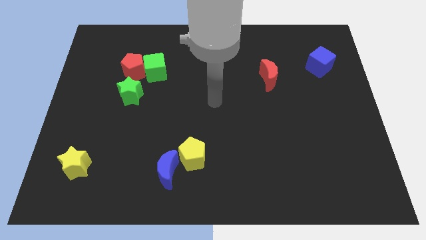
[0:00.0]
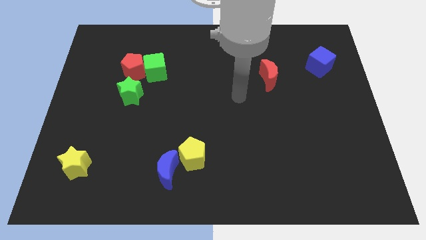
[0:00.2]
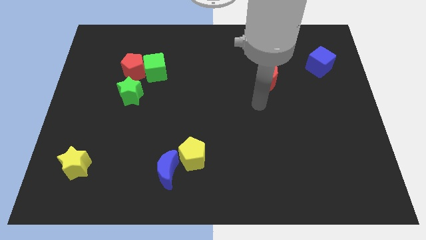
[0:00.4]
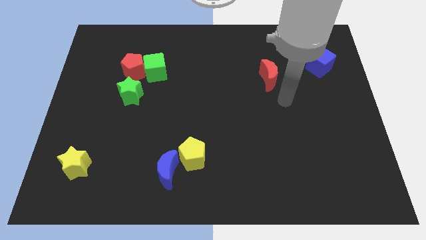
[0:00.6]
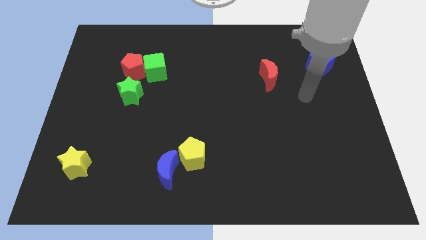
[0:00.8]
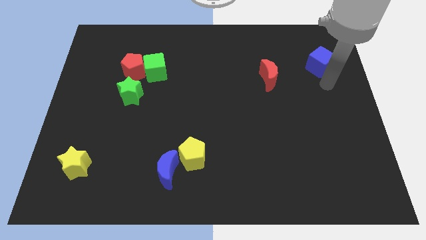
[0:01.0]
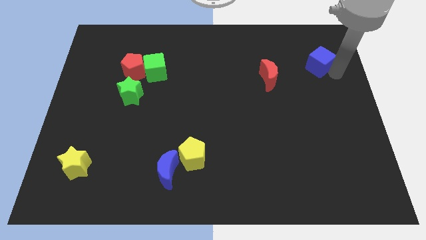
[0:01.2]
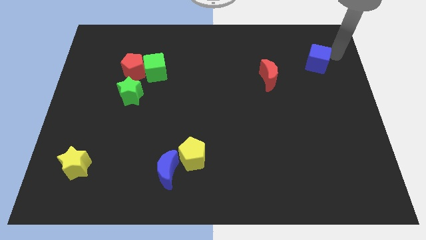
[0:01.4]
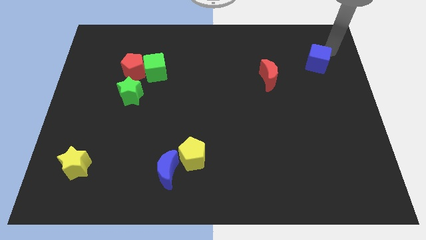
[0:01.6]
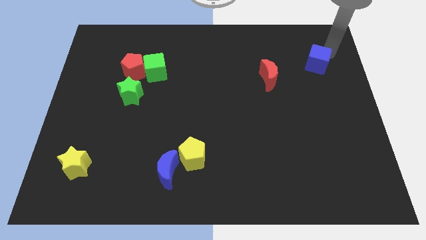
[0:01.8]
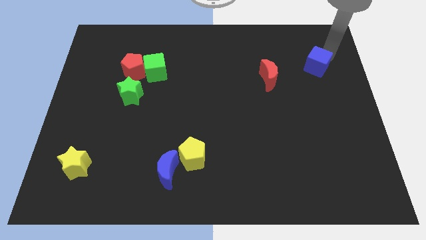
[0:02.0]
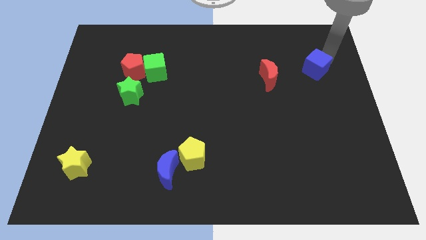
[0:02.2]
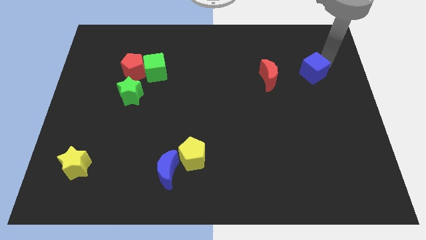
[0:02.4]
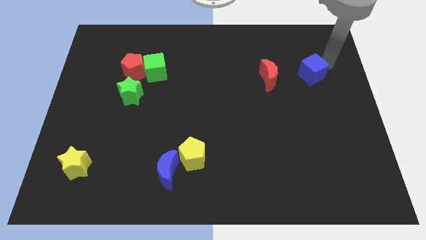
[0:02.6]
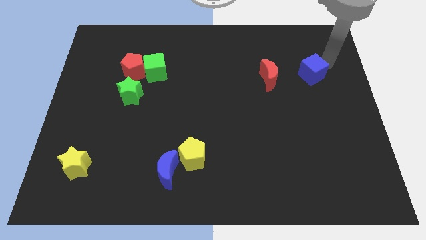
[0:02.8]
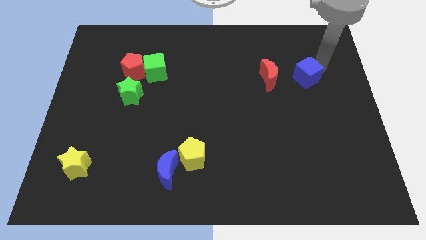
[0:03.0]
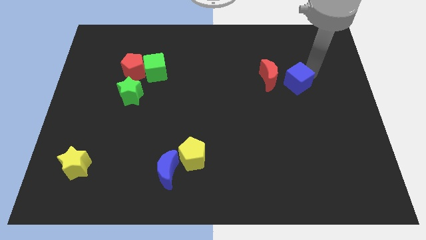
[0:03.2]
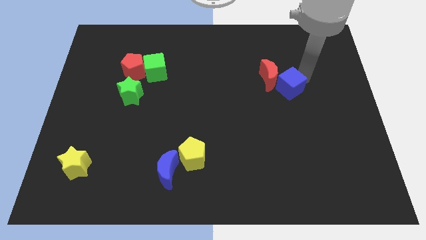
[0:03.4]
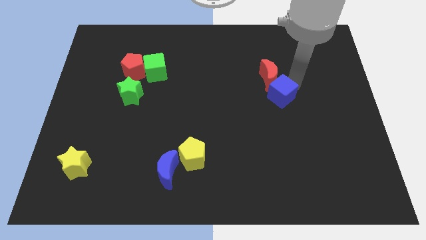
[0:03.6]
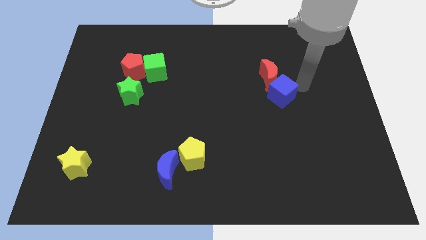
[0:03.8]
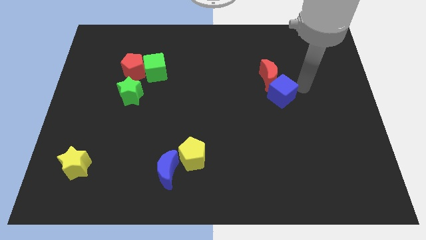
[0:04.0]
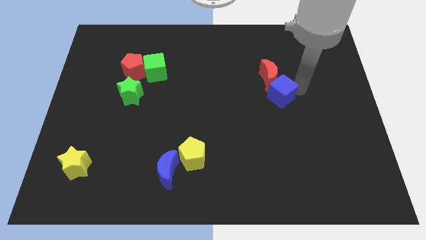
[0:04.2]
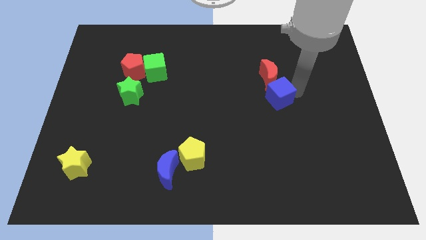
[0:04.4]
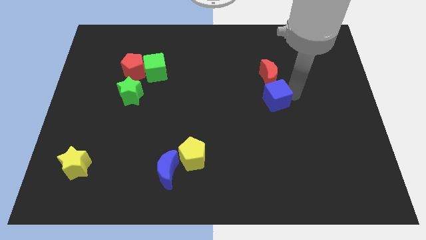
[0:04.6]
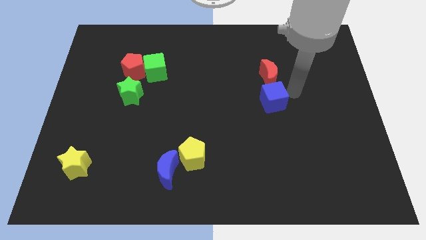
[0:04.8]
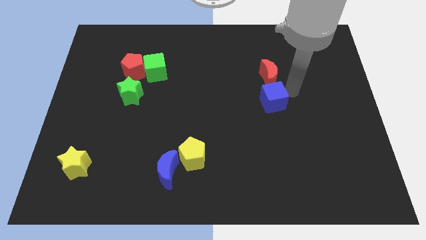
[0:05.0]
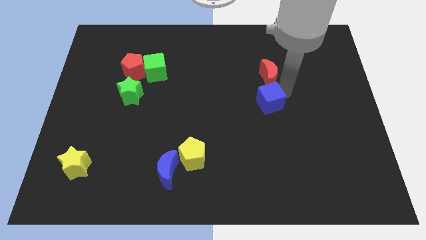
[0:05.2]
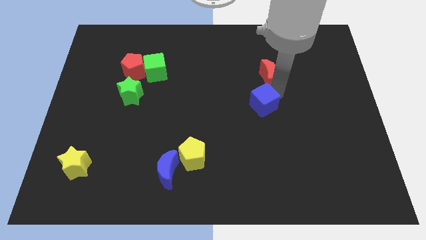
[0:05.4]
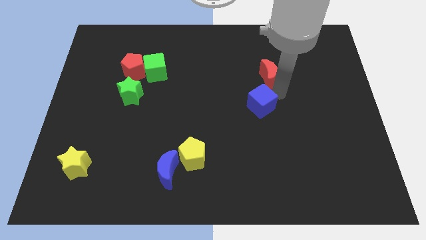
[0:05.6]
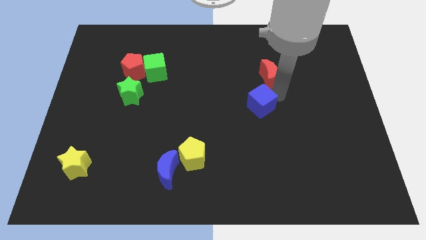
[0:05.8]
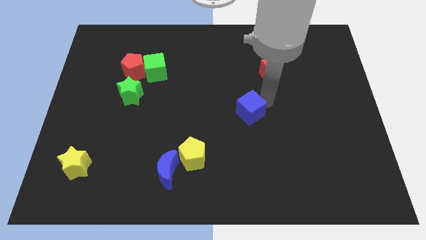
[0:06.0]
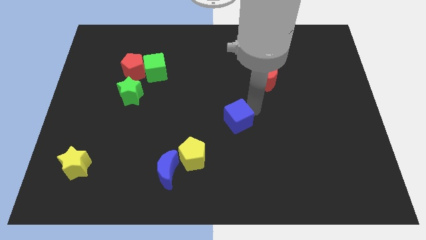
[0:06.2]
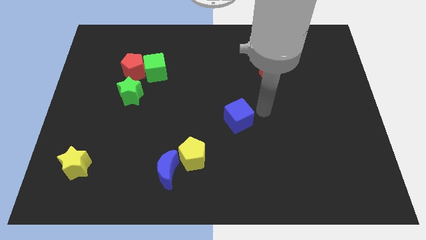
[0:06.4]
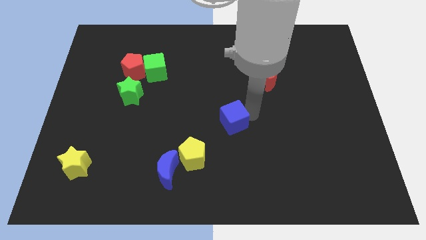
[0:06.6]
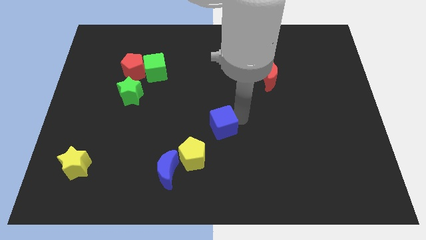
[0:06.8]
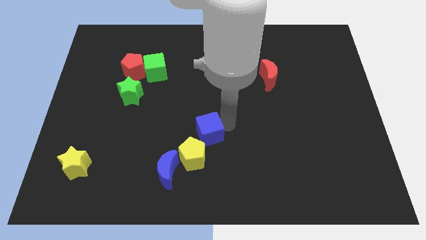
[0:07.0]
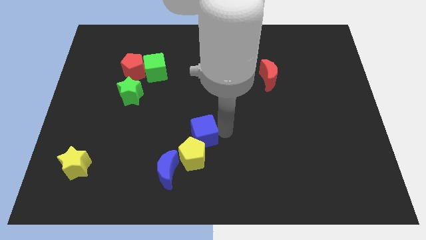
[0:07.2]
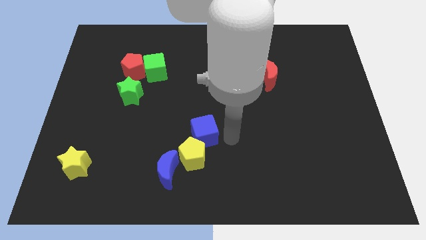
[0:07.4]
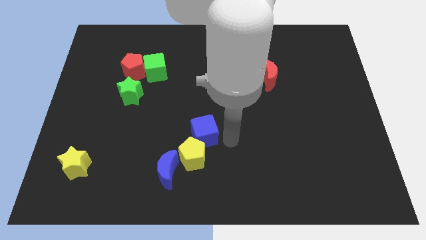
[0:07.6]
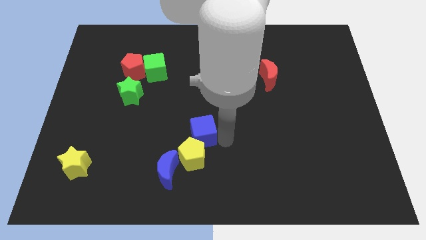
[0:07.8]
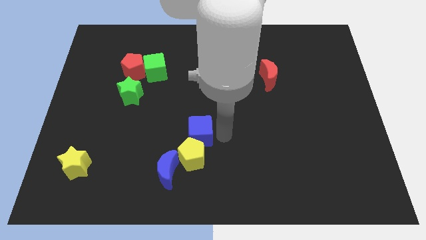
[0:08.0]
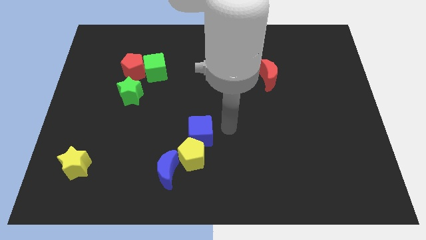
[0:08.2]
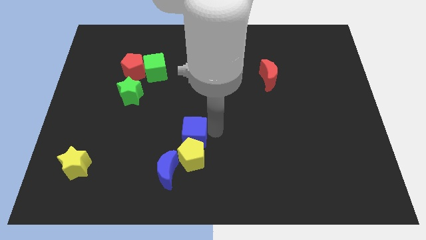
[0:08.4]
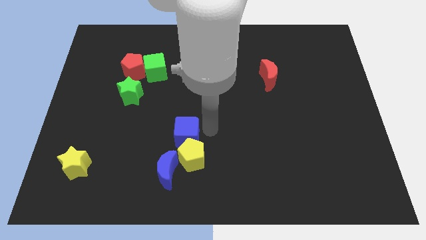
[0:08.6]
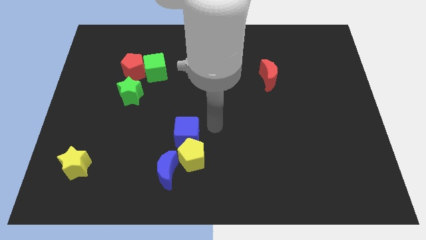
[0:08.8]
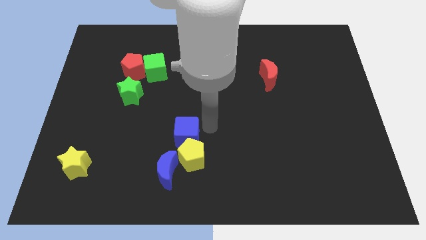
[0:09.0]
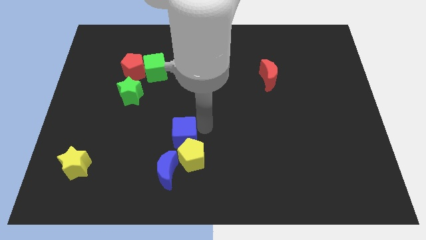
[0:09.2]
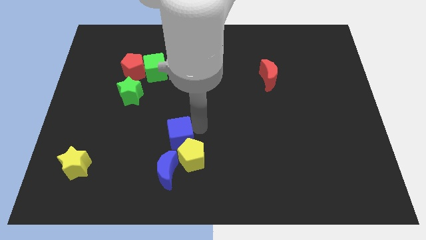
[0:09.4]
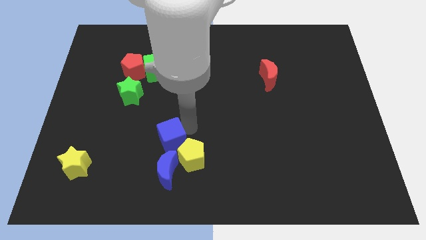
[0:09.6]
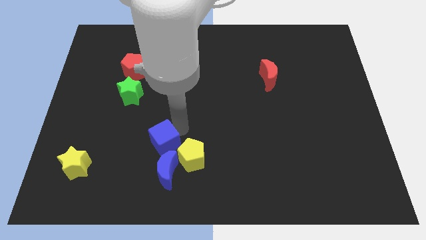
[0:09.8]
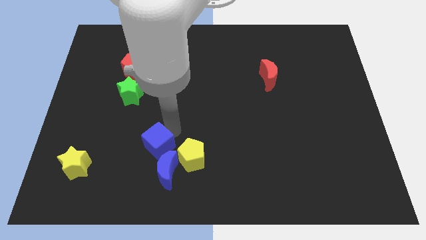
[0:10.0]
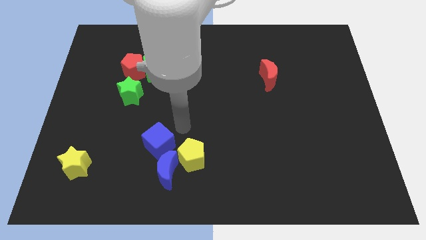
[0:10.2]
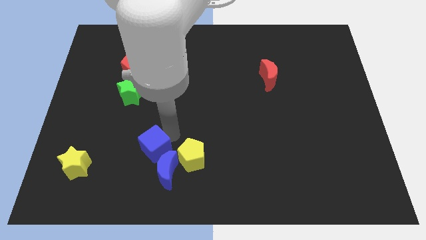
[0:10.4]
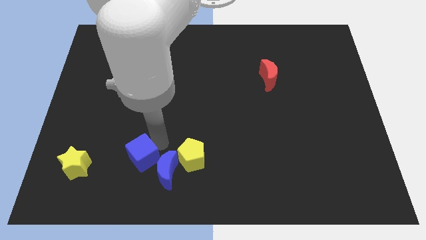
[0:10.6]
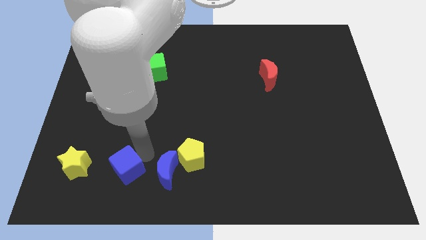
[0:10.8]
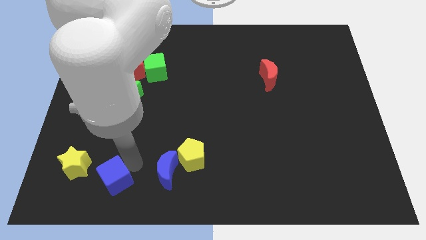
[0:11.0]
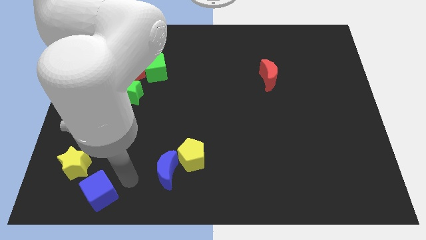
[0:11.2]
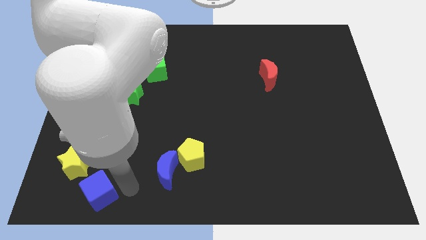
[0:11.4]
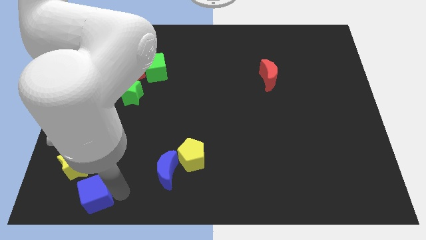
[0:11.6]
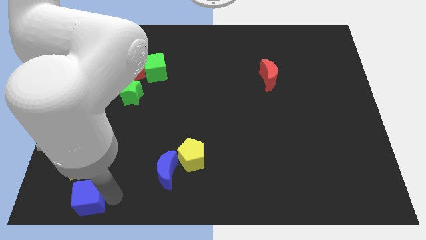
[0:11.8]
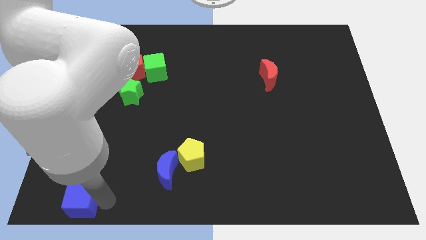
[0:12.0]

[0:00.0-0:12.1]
slide the blue cube to the bottom left

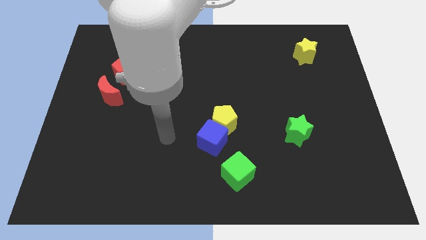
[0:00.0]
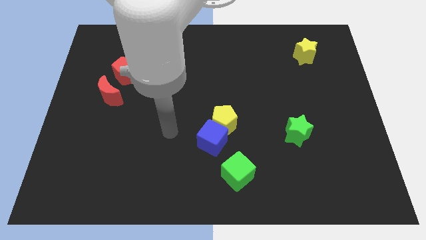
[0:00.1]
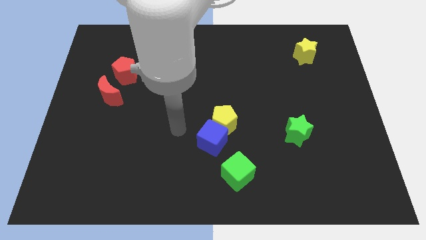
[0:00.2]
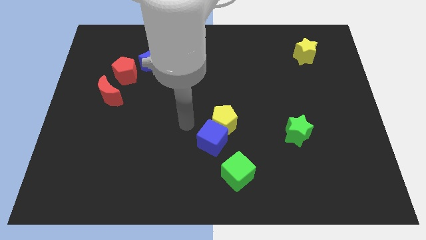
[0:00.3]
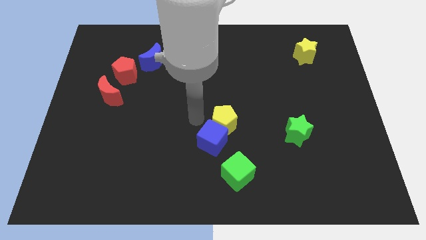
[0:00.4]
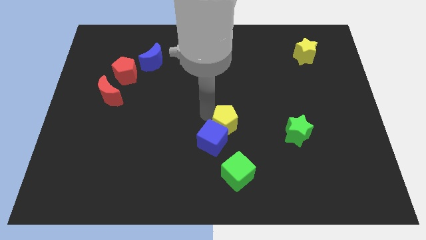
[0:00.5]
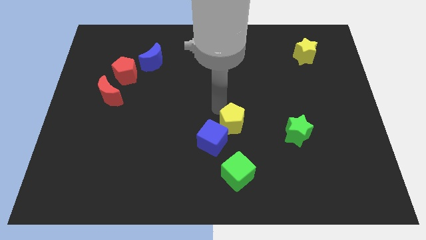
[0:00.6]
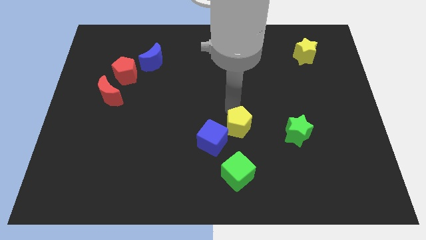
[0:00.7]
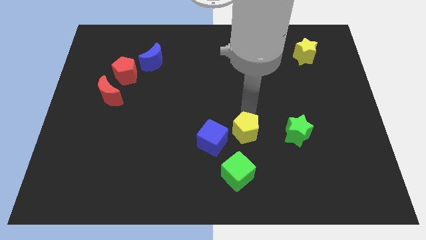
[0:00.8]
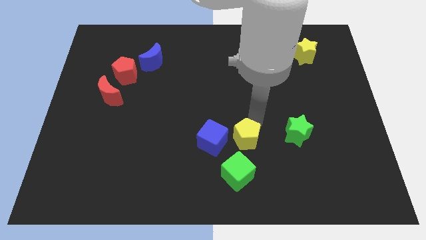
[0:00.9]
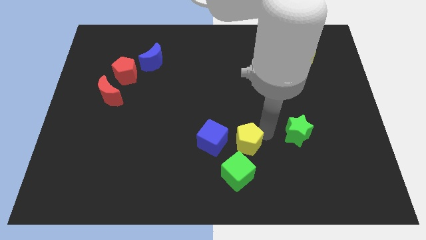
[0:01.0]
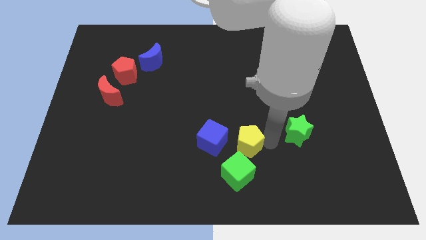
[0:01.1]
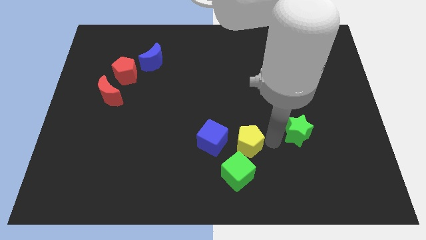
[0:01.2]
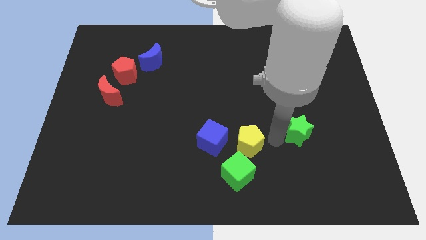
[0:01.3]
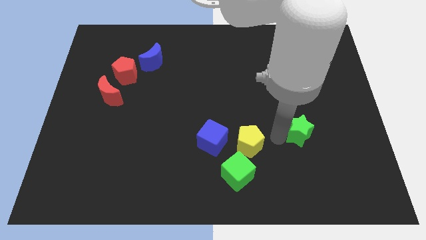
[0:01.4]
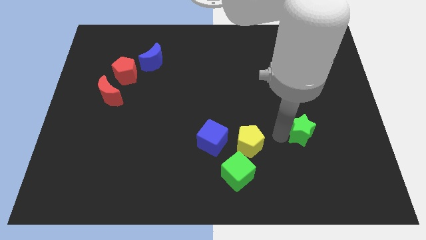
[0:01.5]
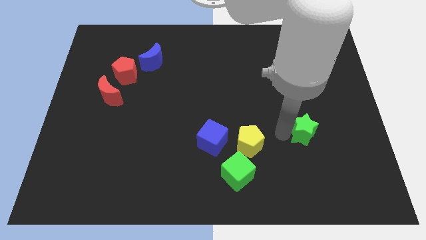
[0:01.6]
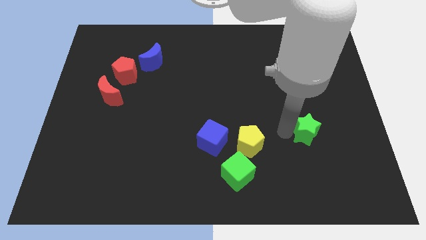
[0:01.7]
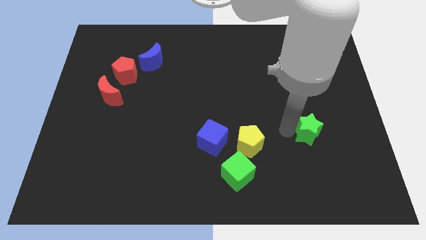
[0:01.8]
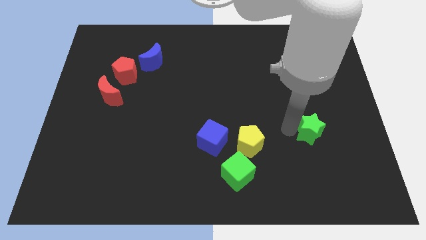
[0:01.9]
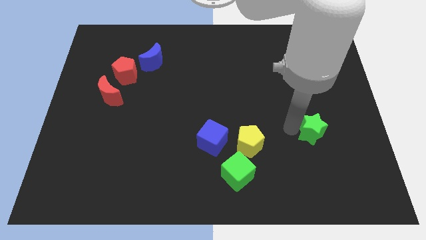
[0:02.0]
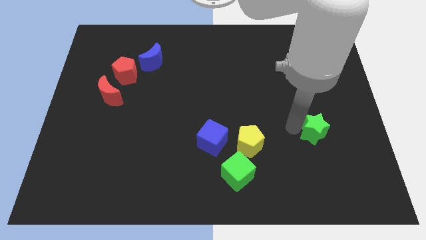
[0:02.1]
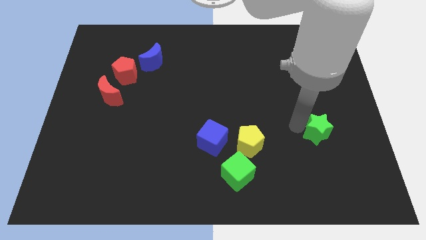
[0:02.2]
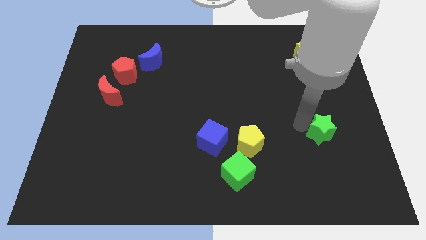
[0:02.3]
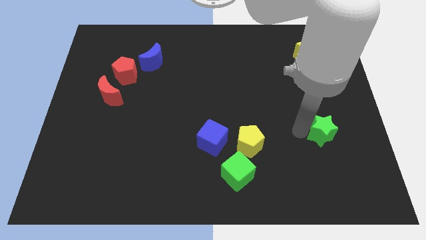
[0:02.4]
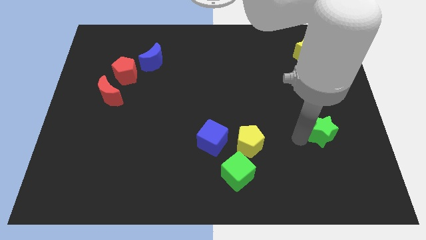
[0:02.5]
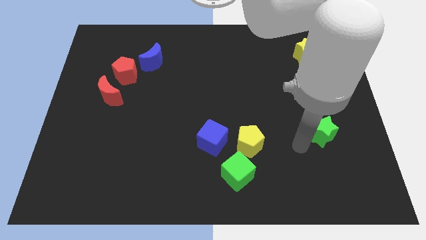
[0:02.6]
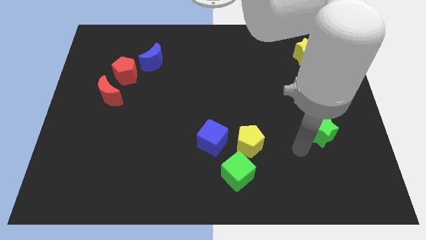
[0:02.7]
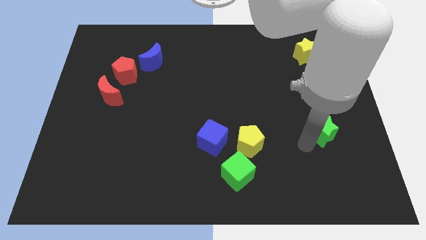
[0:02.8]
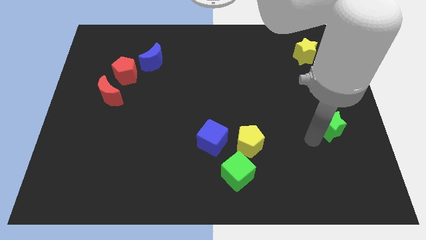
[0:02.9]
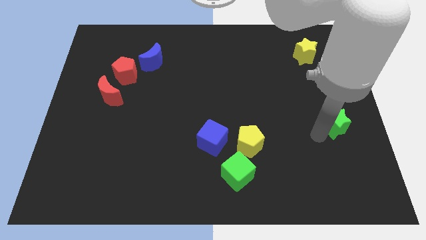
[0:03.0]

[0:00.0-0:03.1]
move the green star to the center right
